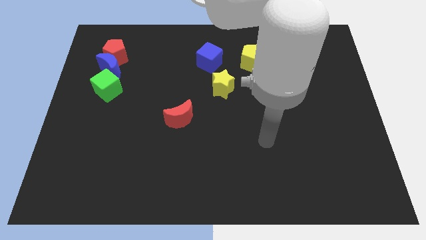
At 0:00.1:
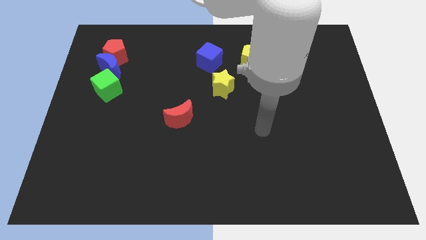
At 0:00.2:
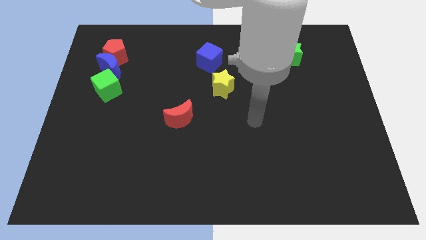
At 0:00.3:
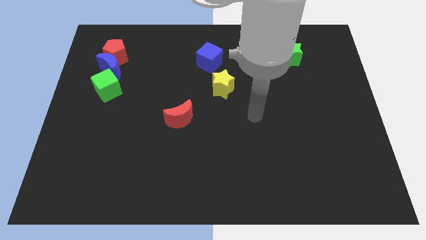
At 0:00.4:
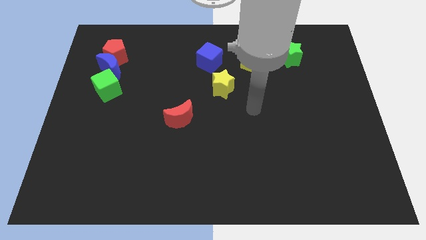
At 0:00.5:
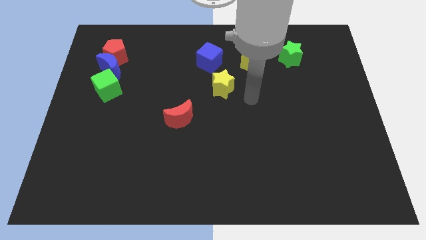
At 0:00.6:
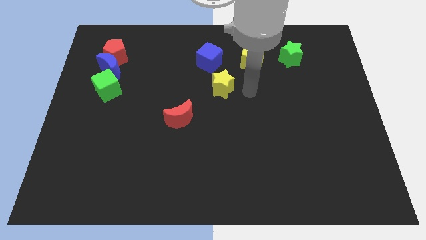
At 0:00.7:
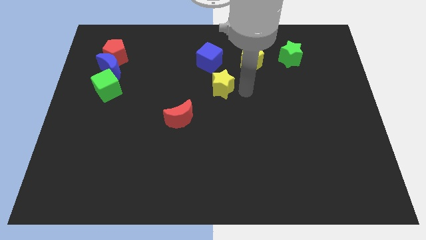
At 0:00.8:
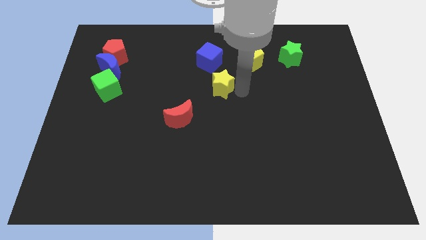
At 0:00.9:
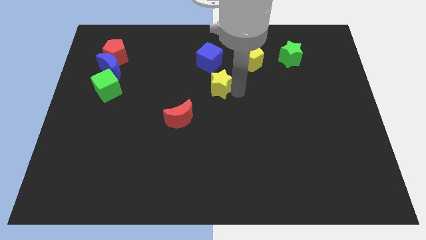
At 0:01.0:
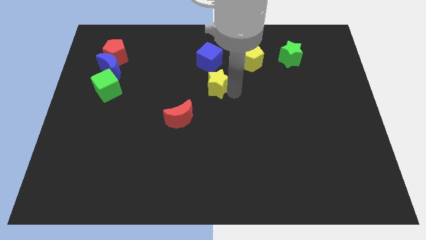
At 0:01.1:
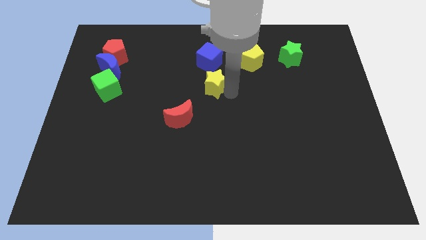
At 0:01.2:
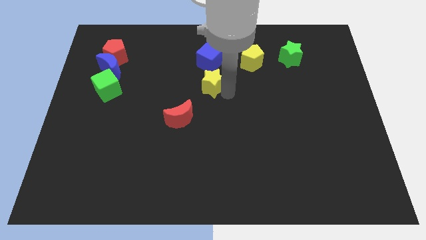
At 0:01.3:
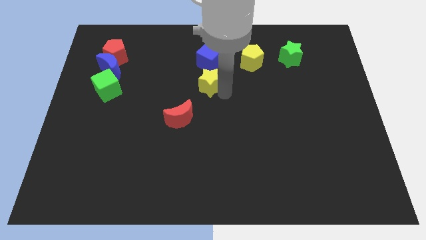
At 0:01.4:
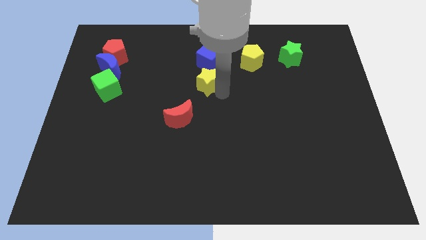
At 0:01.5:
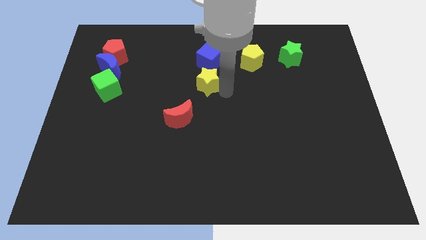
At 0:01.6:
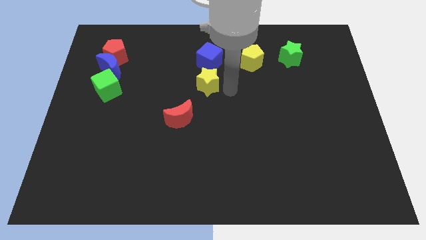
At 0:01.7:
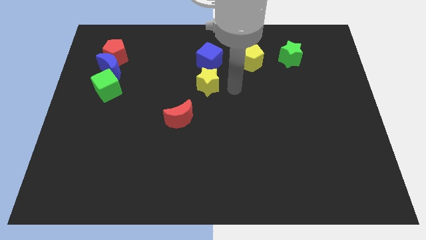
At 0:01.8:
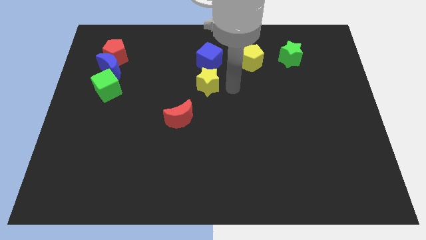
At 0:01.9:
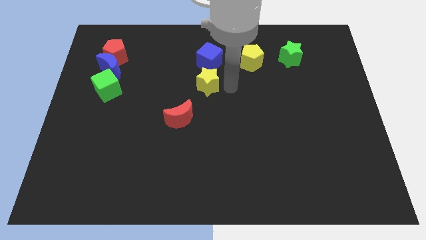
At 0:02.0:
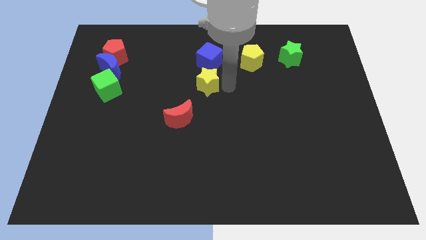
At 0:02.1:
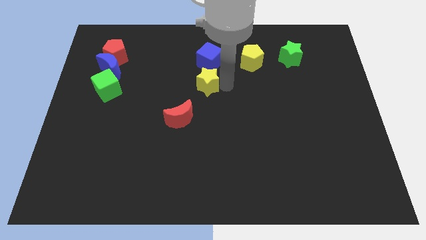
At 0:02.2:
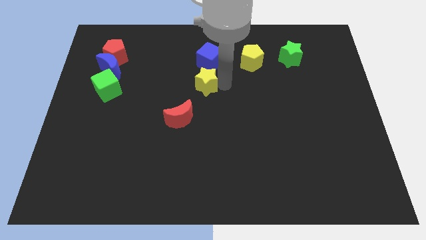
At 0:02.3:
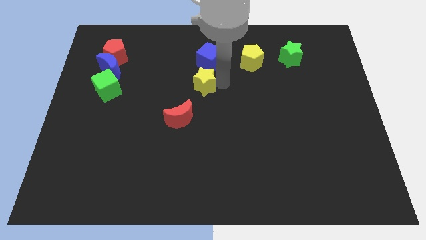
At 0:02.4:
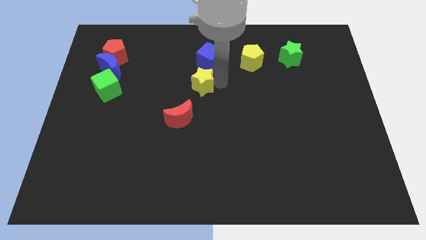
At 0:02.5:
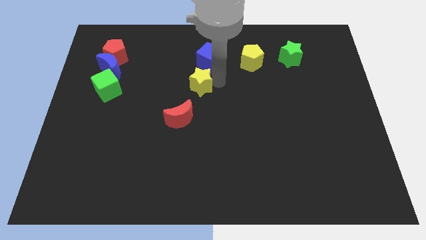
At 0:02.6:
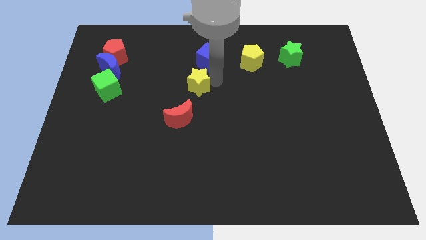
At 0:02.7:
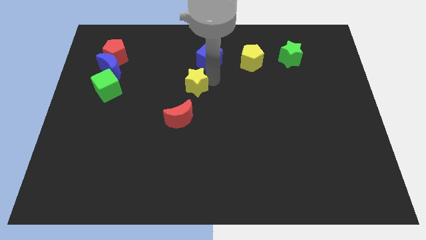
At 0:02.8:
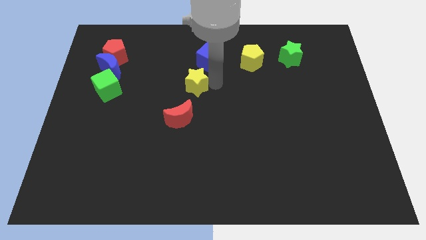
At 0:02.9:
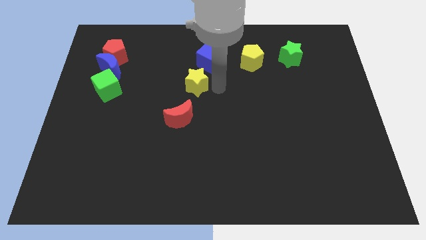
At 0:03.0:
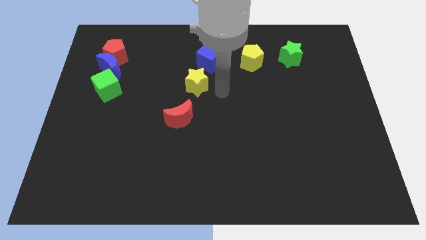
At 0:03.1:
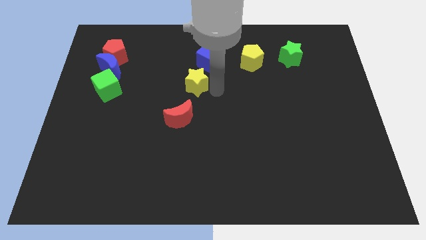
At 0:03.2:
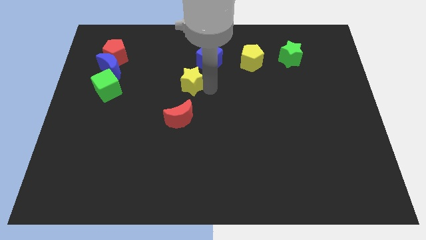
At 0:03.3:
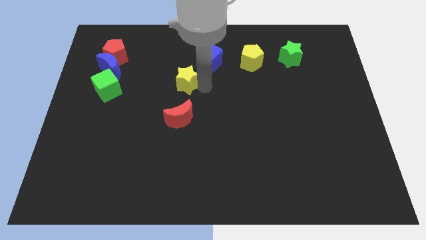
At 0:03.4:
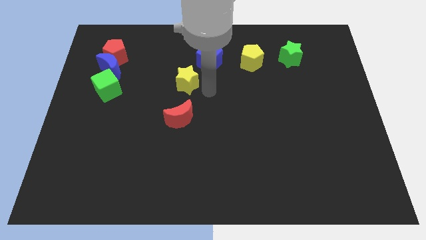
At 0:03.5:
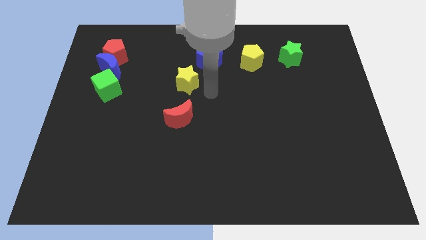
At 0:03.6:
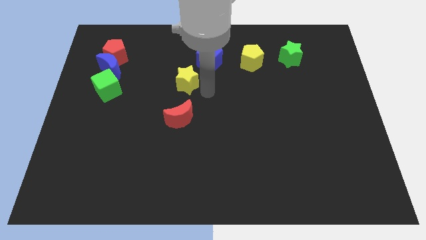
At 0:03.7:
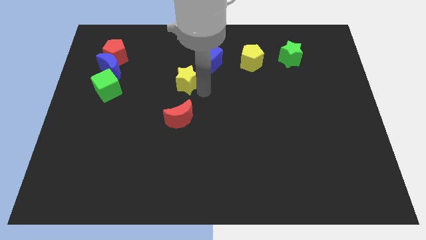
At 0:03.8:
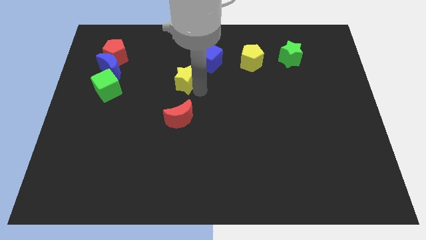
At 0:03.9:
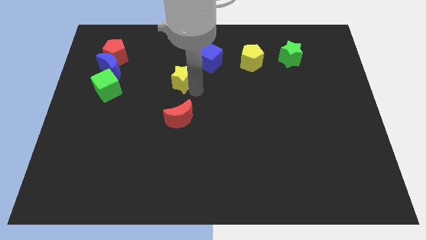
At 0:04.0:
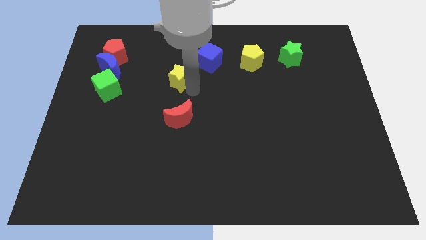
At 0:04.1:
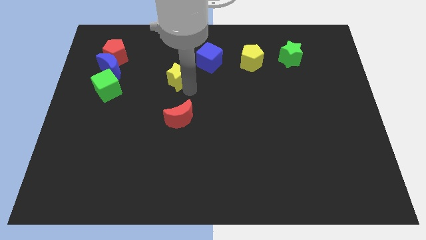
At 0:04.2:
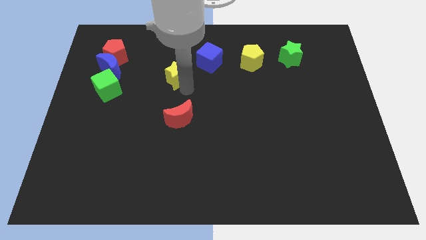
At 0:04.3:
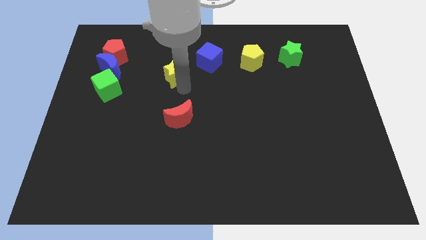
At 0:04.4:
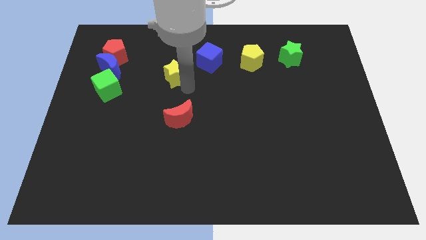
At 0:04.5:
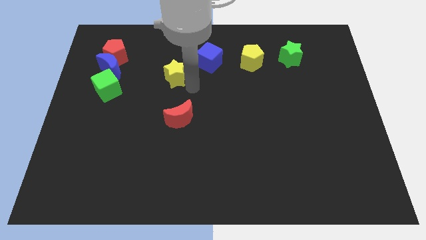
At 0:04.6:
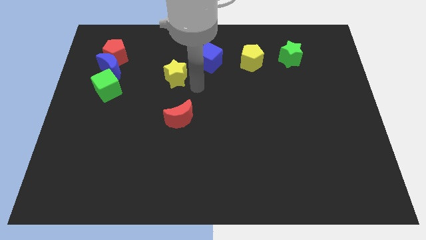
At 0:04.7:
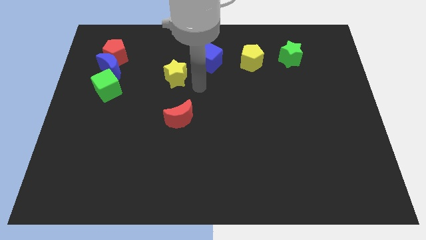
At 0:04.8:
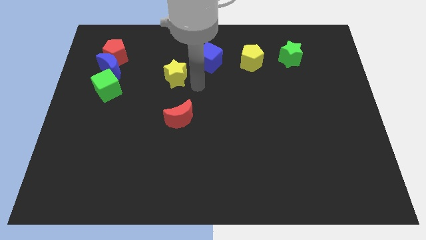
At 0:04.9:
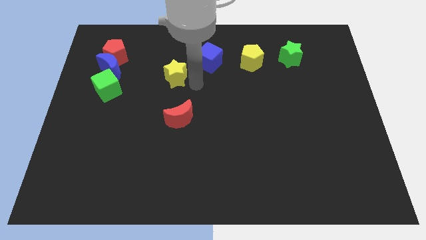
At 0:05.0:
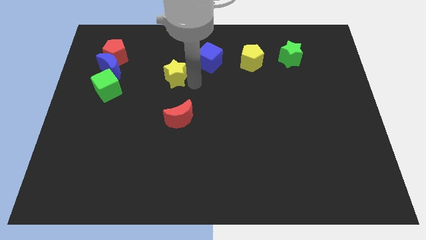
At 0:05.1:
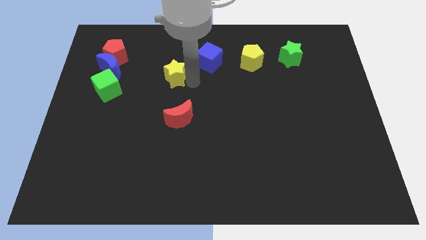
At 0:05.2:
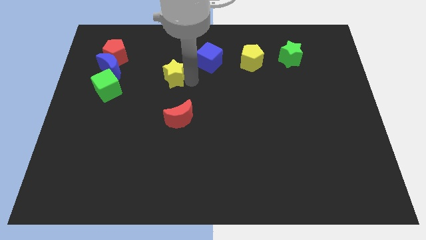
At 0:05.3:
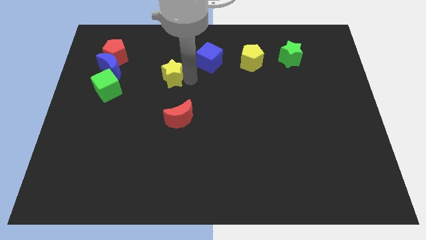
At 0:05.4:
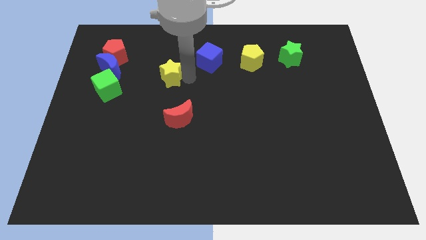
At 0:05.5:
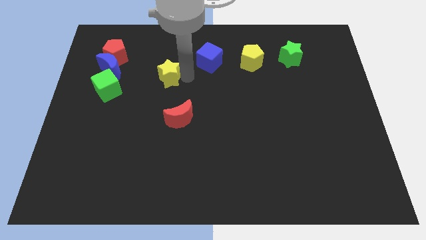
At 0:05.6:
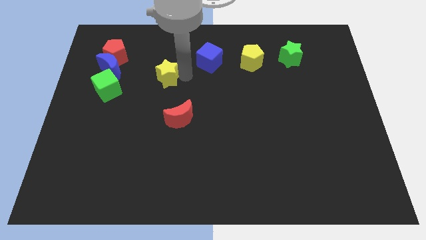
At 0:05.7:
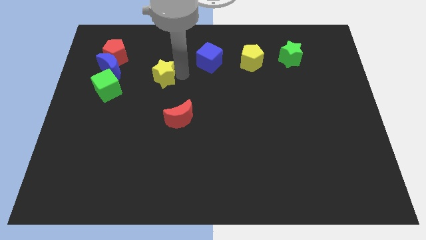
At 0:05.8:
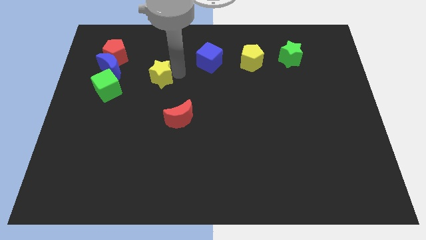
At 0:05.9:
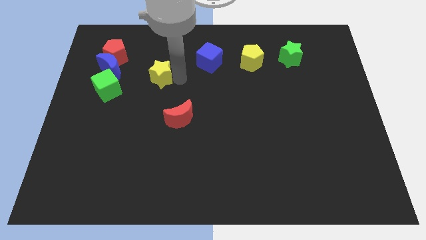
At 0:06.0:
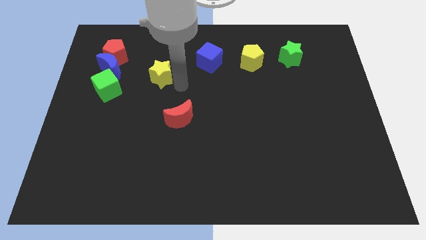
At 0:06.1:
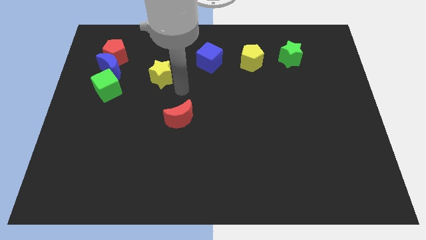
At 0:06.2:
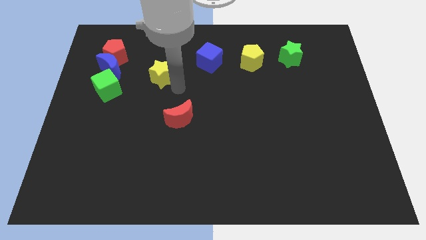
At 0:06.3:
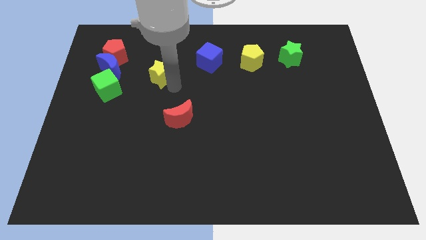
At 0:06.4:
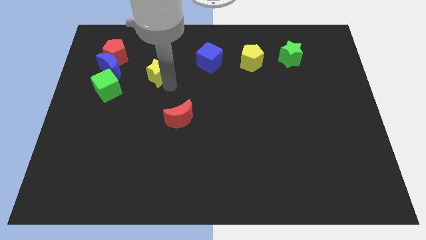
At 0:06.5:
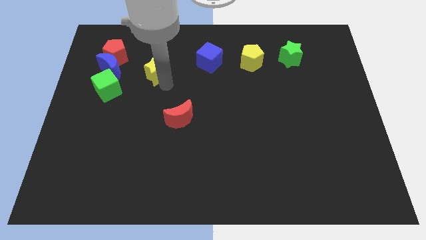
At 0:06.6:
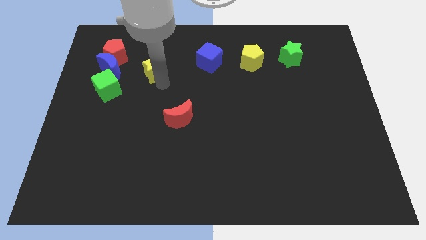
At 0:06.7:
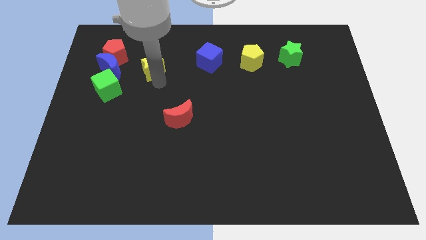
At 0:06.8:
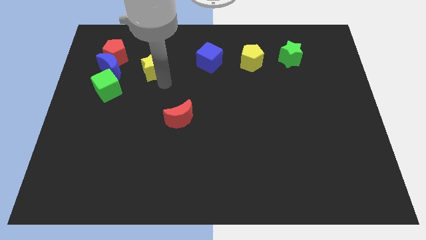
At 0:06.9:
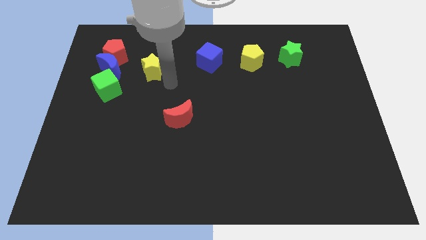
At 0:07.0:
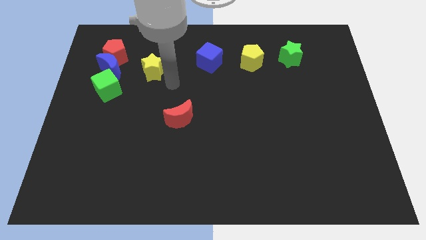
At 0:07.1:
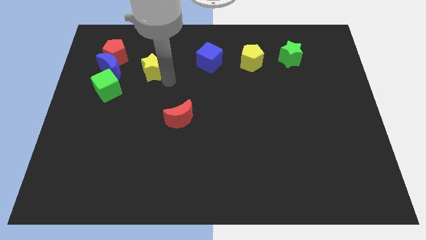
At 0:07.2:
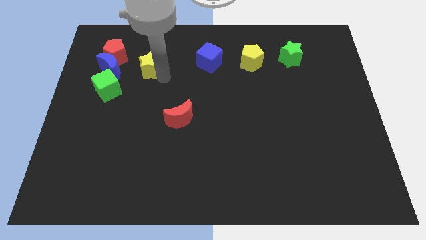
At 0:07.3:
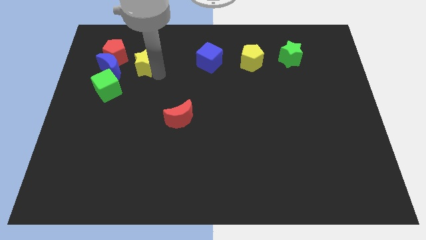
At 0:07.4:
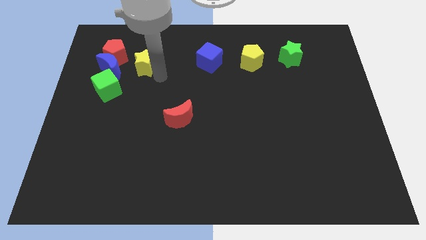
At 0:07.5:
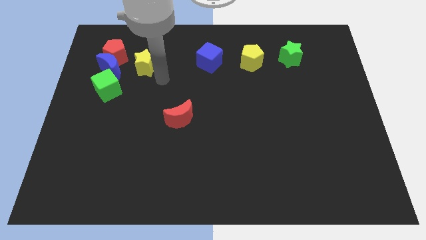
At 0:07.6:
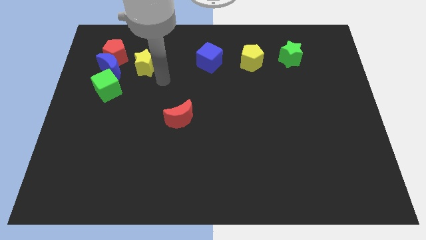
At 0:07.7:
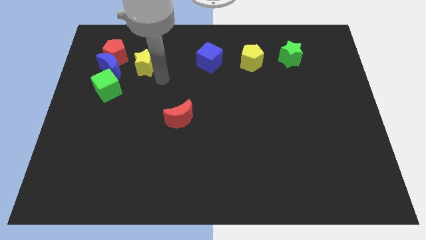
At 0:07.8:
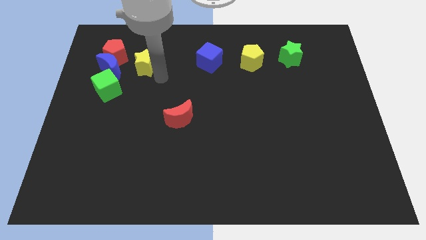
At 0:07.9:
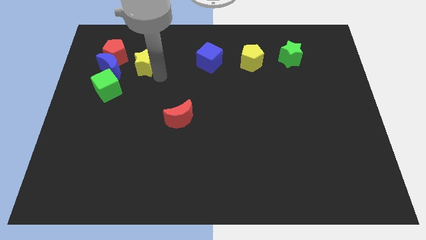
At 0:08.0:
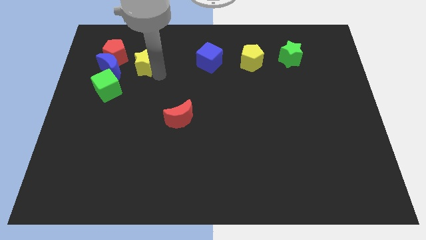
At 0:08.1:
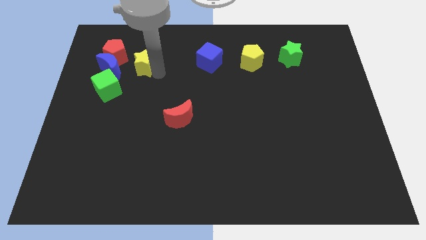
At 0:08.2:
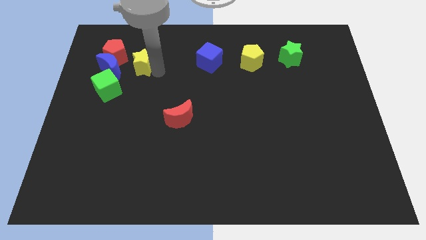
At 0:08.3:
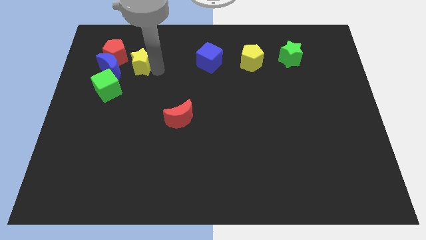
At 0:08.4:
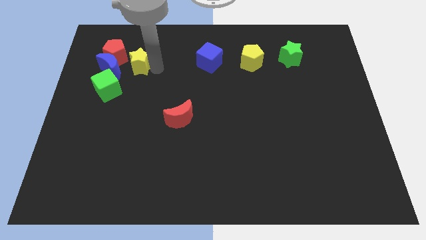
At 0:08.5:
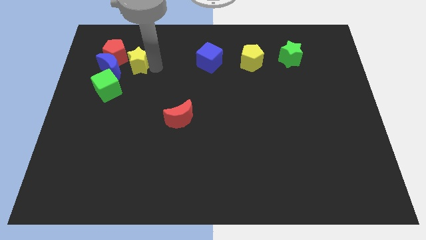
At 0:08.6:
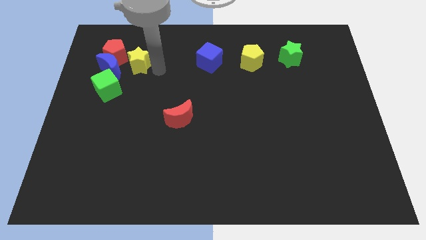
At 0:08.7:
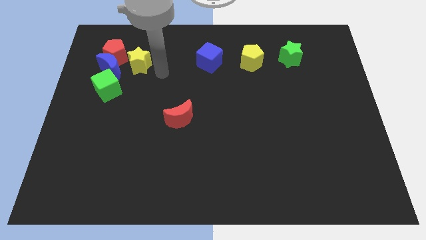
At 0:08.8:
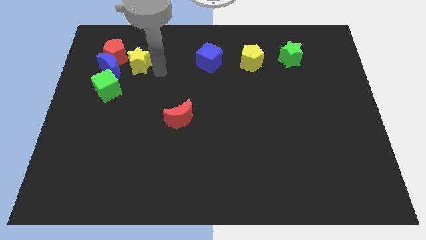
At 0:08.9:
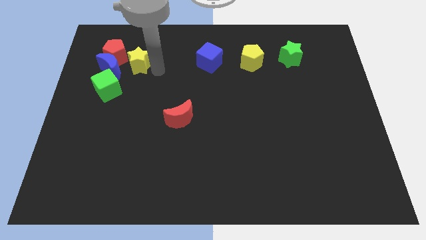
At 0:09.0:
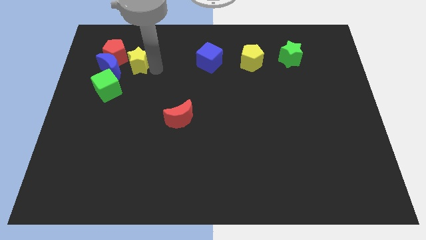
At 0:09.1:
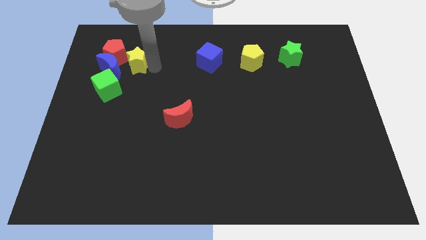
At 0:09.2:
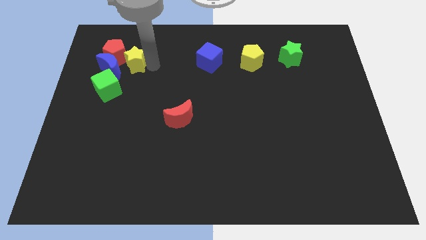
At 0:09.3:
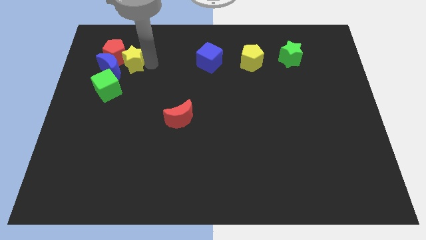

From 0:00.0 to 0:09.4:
move the yellow star next to the red pentagon
